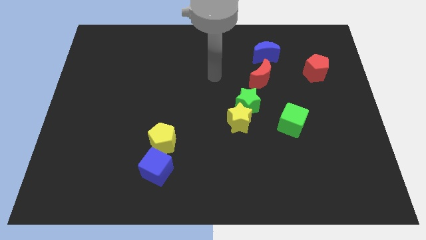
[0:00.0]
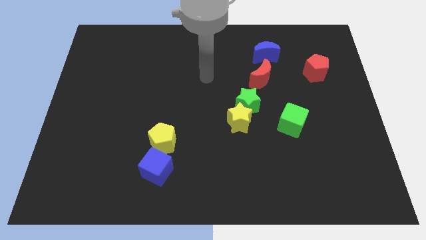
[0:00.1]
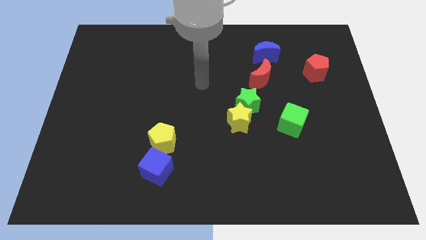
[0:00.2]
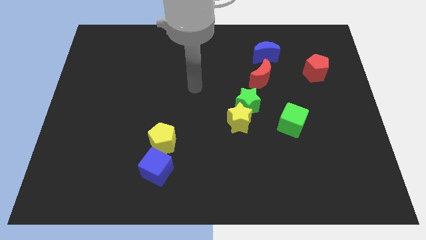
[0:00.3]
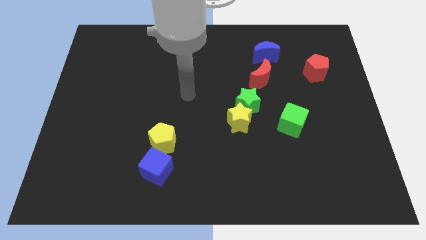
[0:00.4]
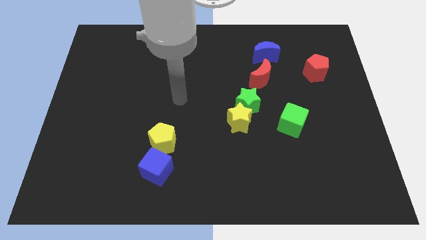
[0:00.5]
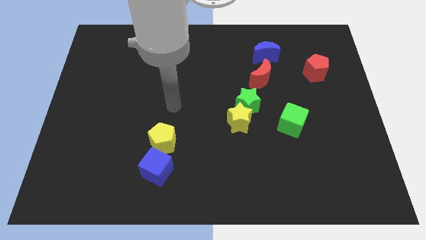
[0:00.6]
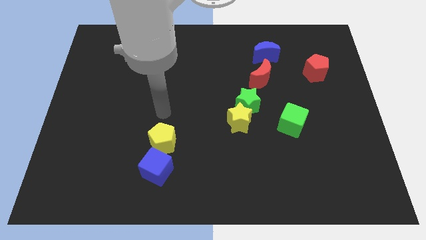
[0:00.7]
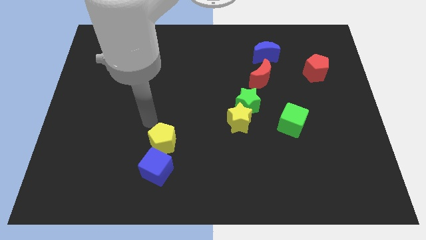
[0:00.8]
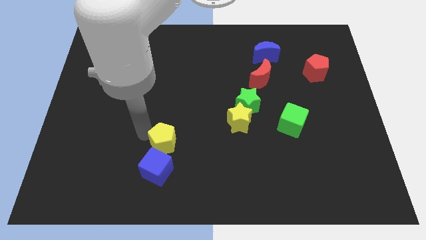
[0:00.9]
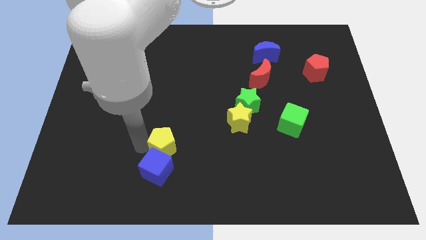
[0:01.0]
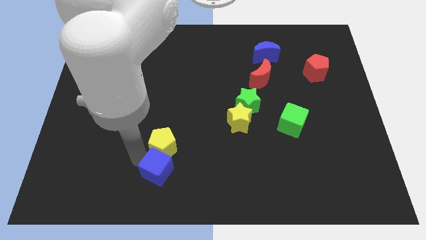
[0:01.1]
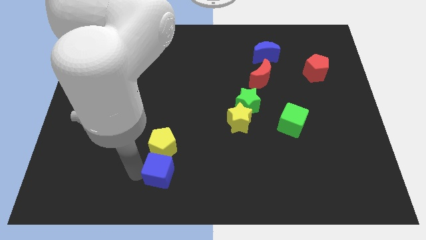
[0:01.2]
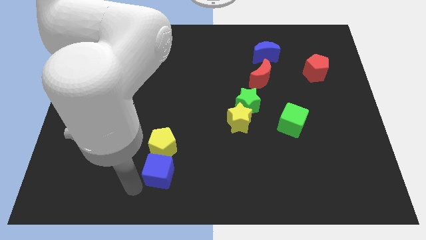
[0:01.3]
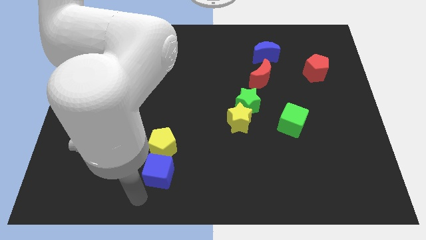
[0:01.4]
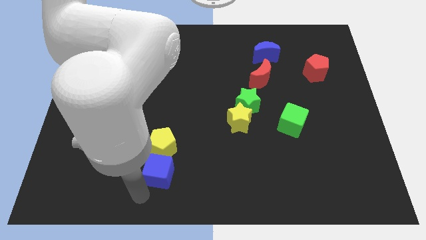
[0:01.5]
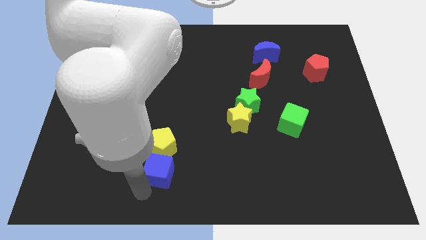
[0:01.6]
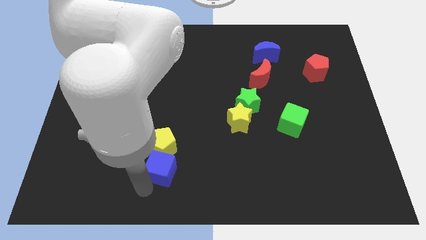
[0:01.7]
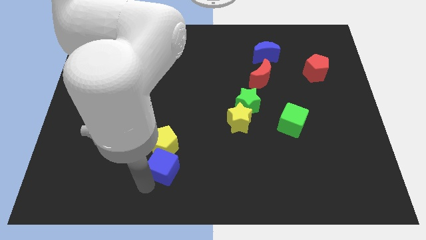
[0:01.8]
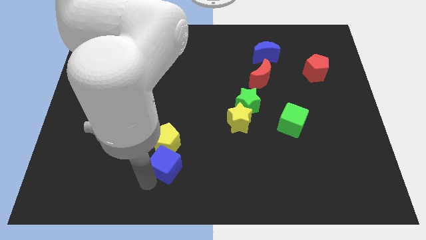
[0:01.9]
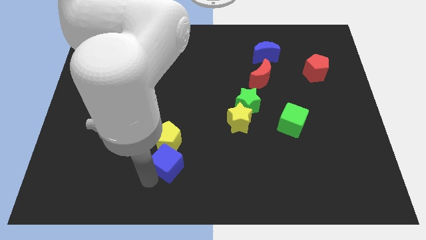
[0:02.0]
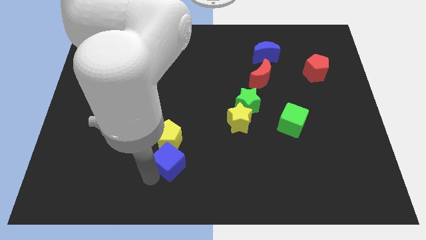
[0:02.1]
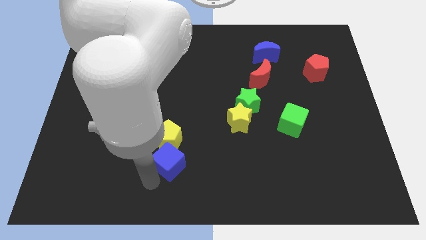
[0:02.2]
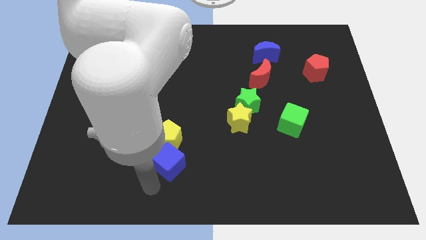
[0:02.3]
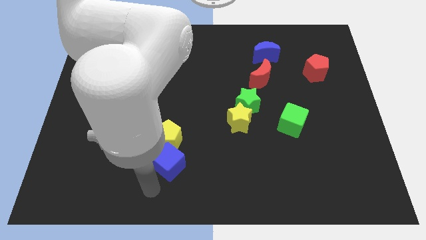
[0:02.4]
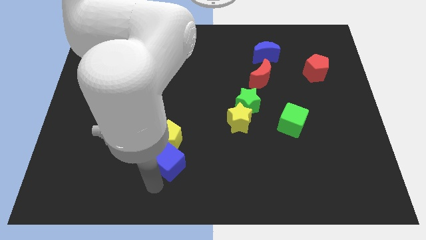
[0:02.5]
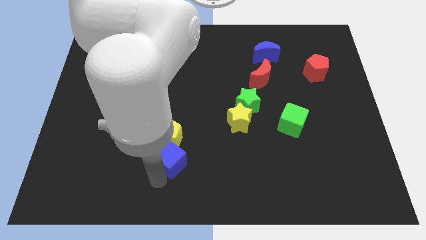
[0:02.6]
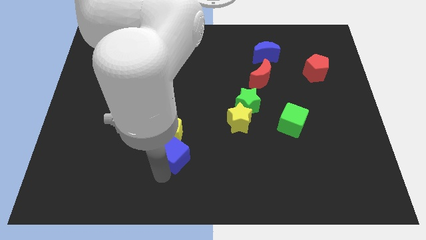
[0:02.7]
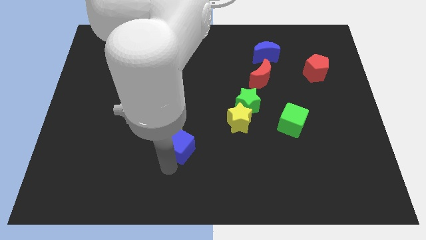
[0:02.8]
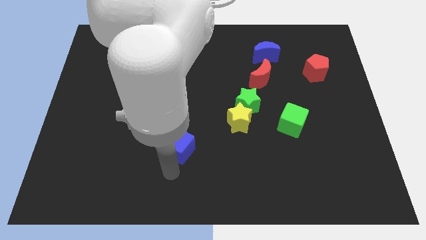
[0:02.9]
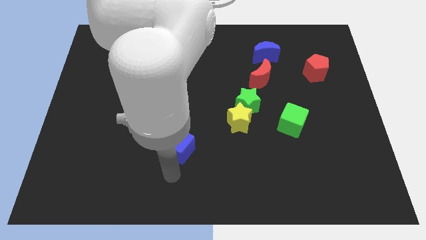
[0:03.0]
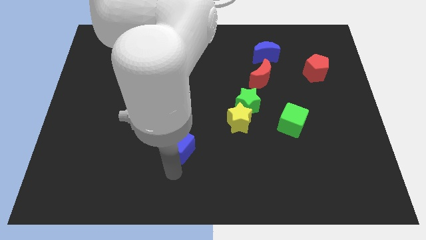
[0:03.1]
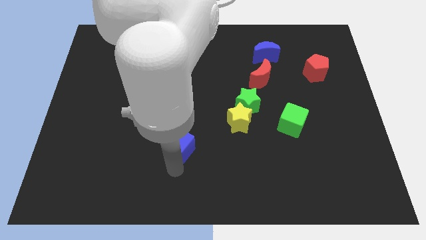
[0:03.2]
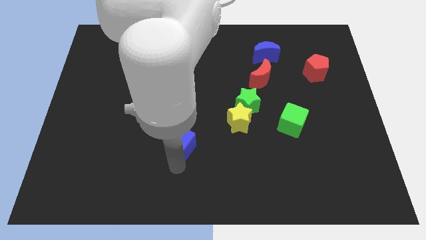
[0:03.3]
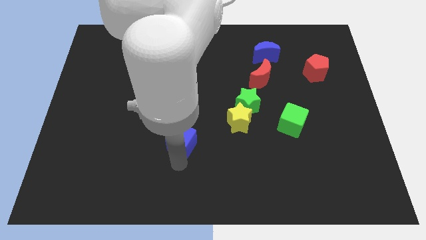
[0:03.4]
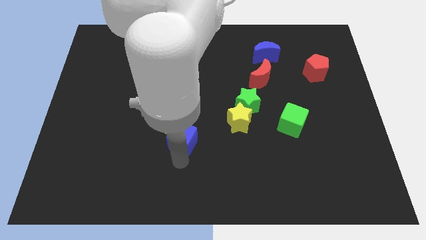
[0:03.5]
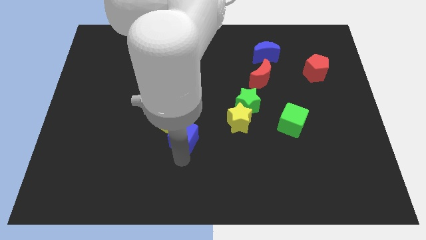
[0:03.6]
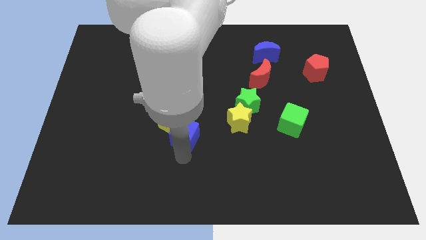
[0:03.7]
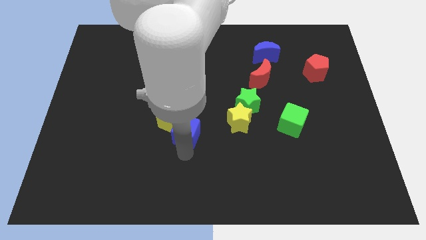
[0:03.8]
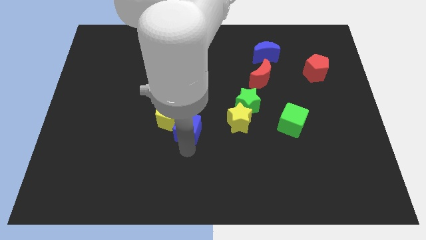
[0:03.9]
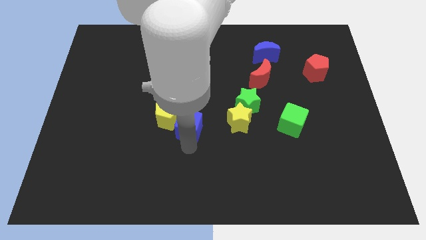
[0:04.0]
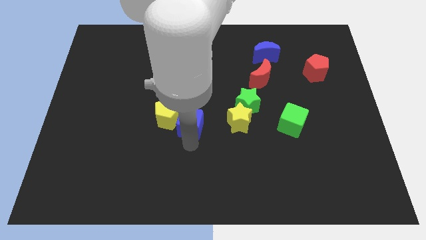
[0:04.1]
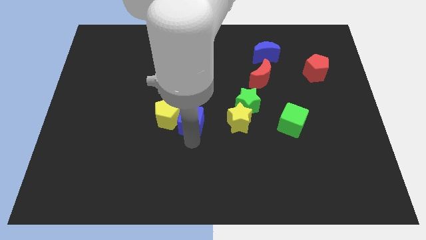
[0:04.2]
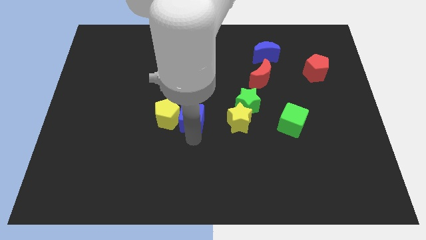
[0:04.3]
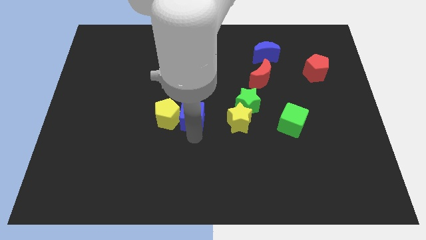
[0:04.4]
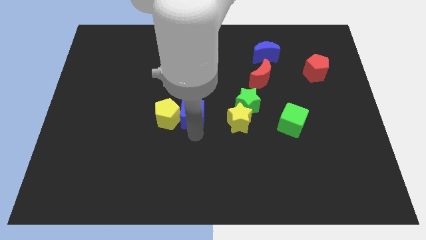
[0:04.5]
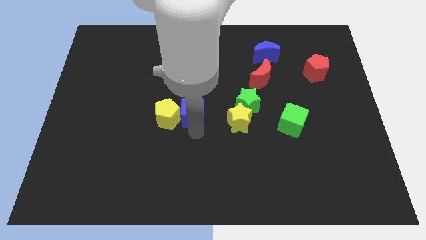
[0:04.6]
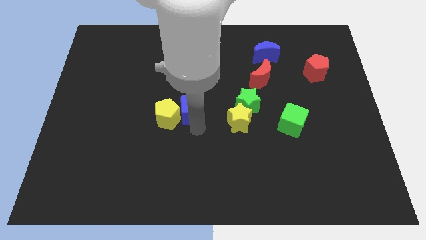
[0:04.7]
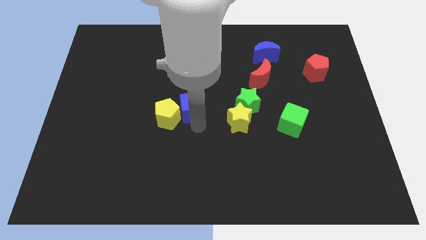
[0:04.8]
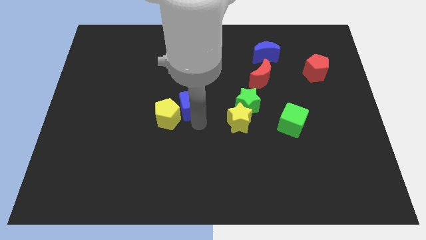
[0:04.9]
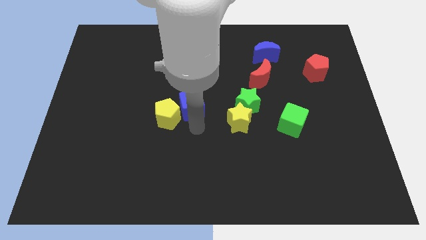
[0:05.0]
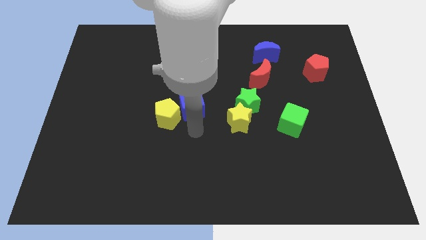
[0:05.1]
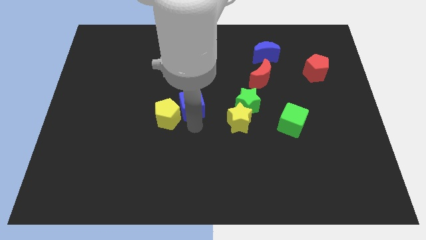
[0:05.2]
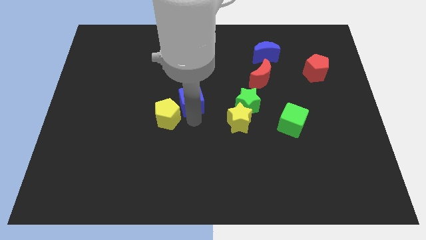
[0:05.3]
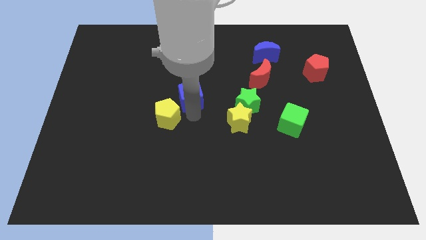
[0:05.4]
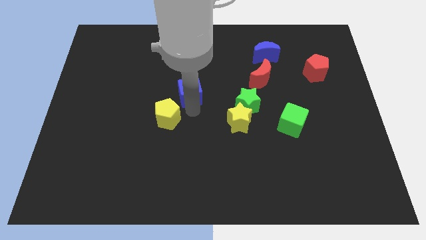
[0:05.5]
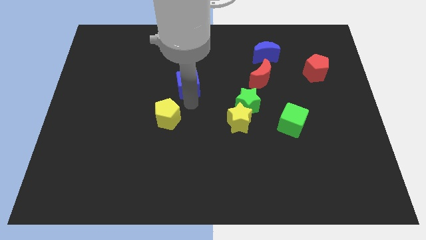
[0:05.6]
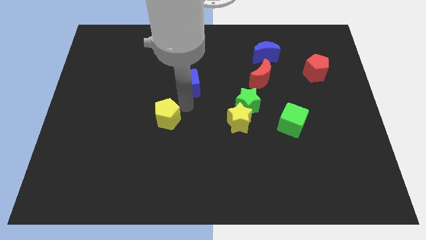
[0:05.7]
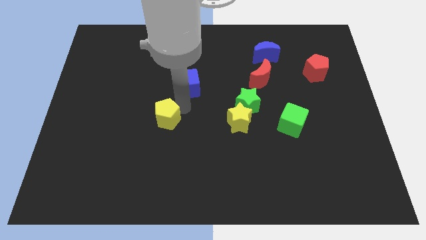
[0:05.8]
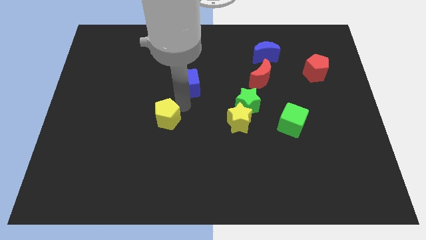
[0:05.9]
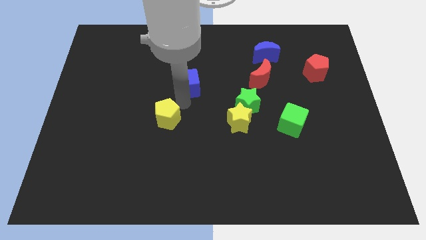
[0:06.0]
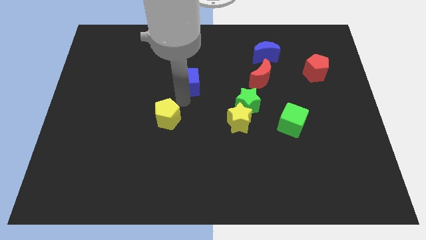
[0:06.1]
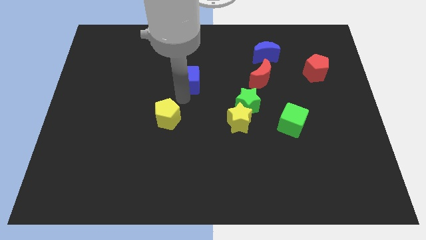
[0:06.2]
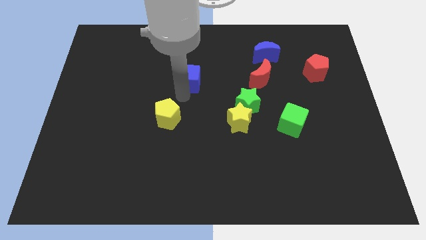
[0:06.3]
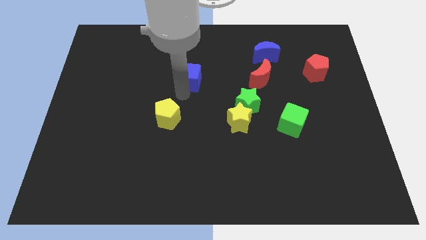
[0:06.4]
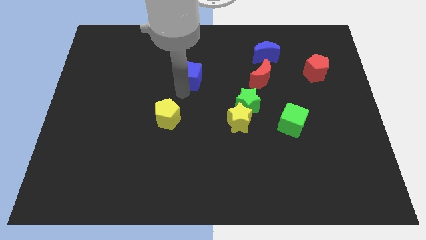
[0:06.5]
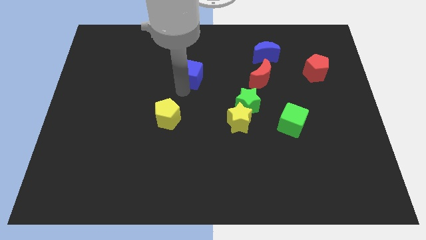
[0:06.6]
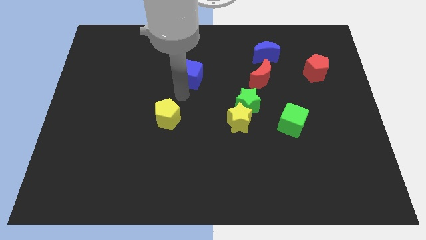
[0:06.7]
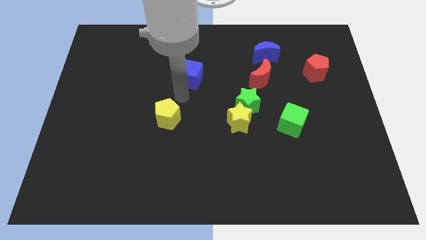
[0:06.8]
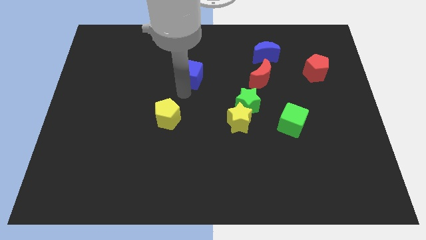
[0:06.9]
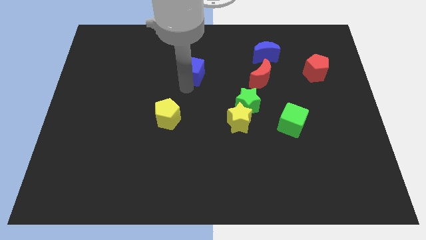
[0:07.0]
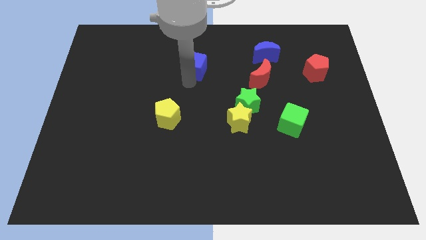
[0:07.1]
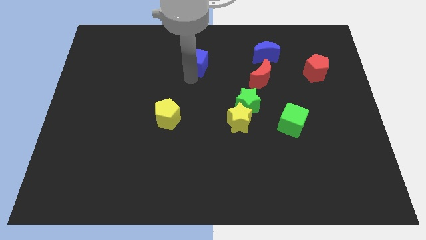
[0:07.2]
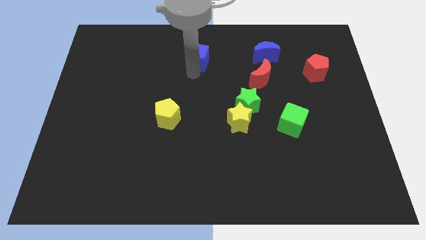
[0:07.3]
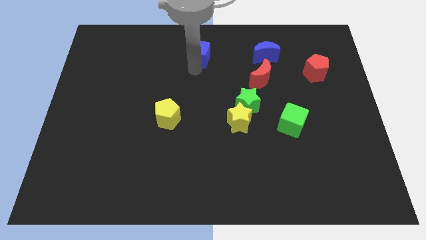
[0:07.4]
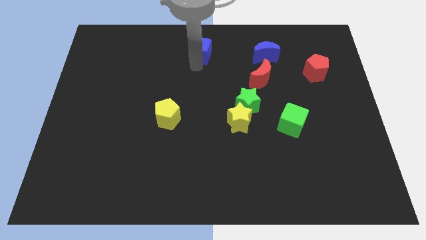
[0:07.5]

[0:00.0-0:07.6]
slide the blue cube to the top side
